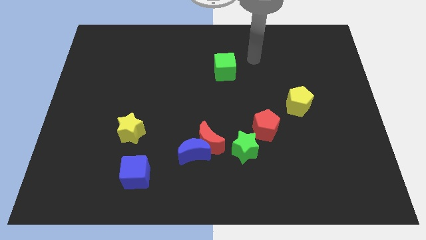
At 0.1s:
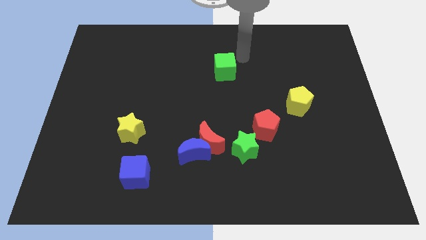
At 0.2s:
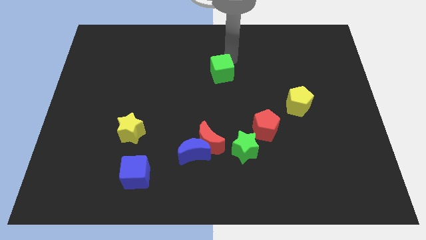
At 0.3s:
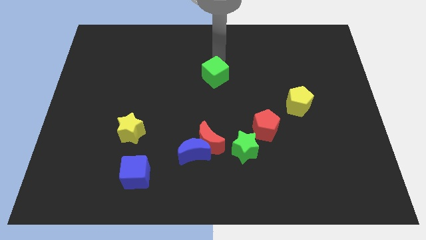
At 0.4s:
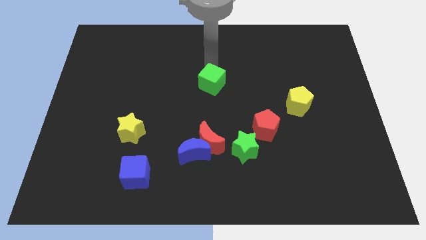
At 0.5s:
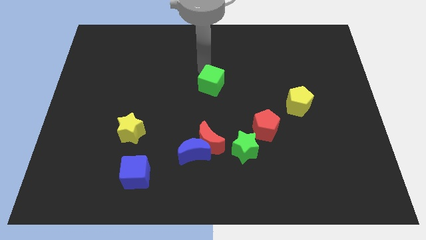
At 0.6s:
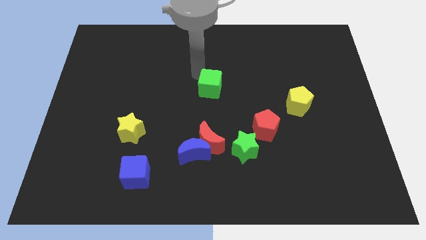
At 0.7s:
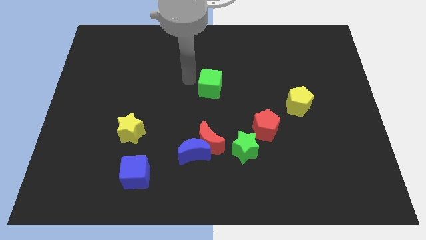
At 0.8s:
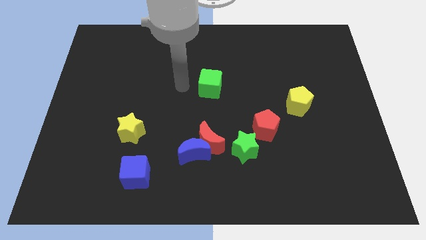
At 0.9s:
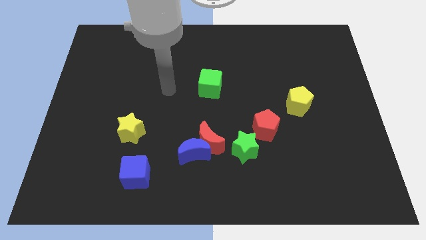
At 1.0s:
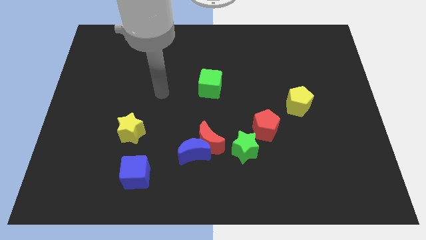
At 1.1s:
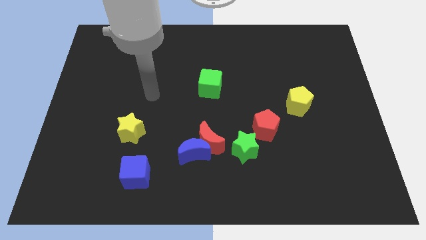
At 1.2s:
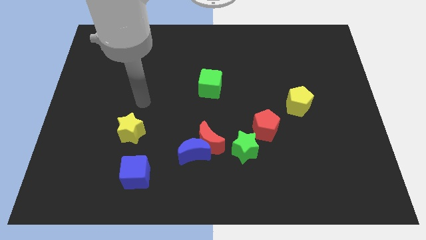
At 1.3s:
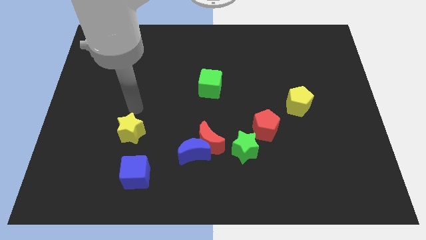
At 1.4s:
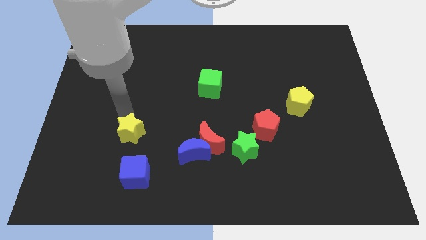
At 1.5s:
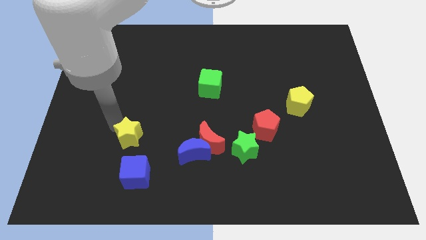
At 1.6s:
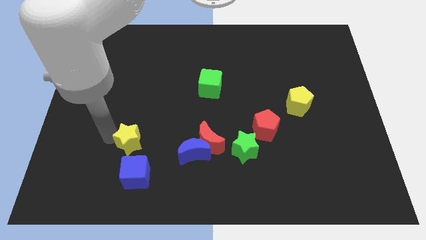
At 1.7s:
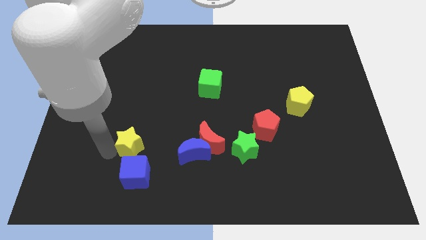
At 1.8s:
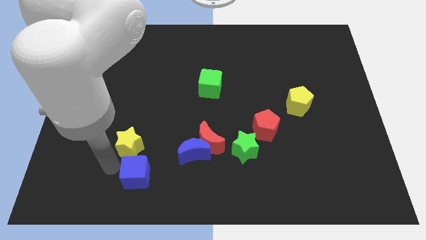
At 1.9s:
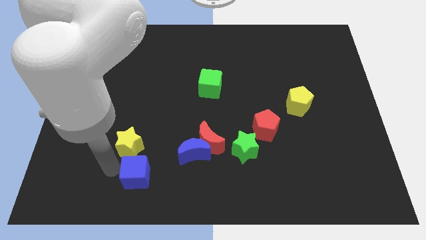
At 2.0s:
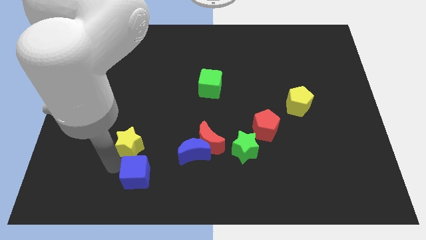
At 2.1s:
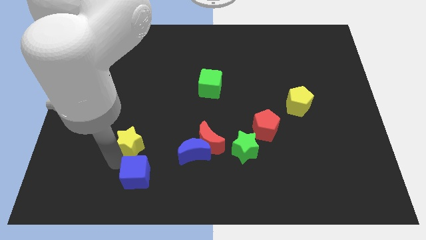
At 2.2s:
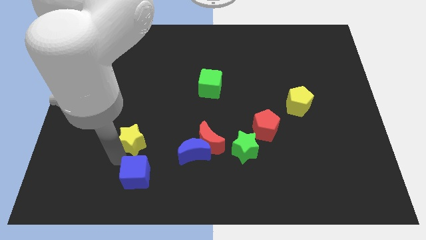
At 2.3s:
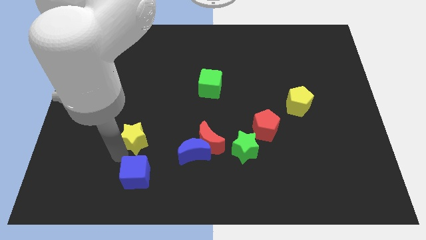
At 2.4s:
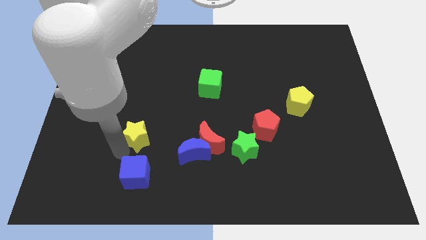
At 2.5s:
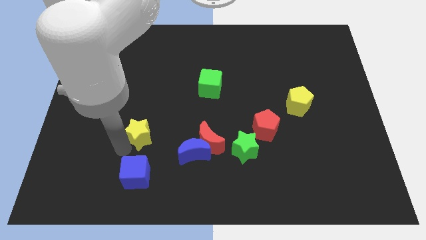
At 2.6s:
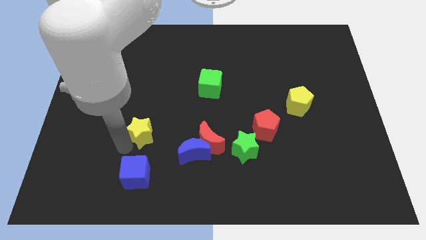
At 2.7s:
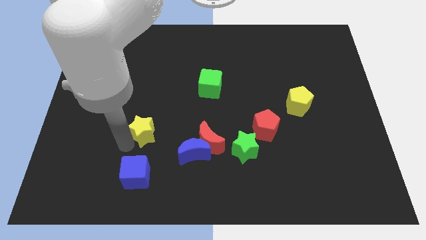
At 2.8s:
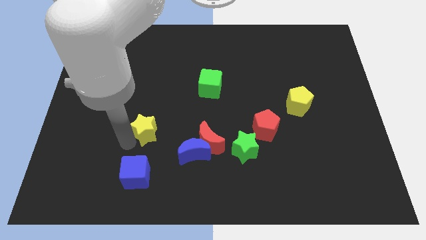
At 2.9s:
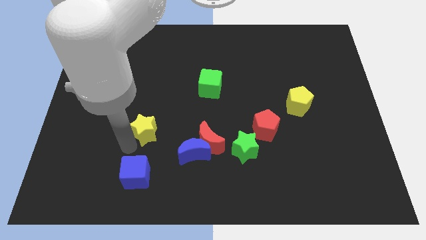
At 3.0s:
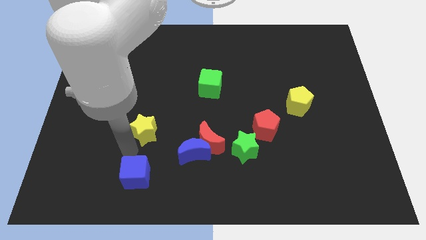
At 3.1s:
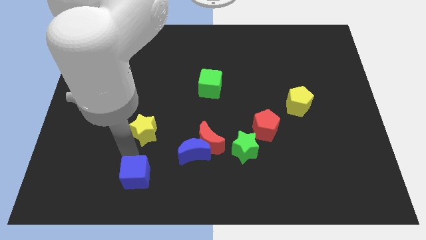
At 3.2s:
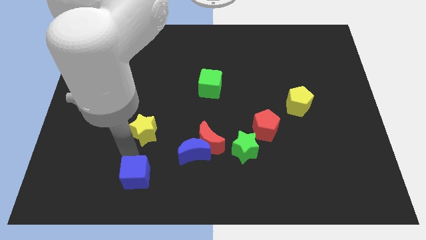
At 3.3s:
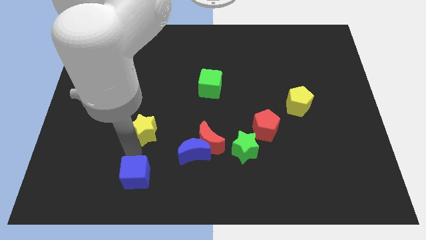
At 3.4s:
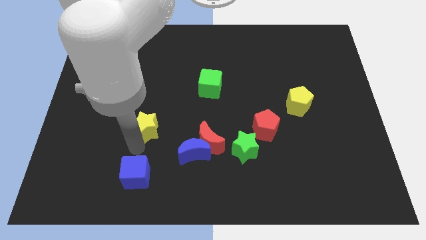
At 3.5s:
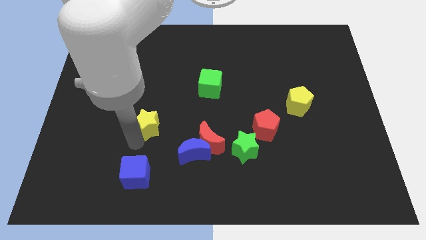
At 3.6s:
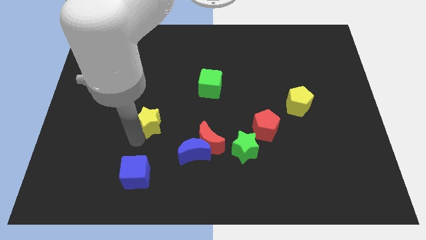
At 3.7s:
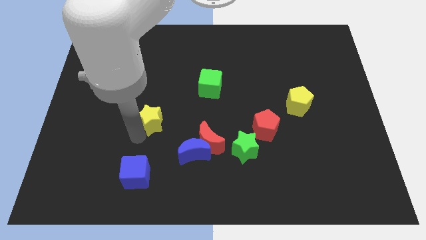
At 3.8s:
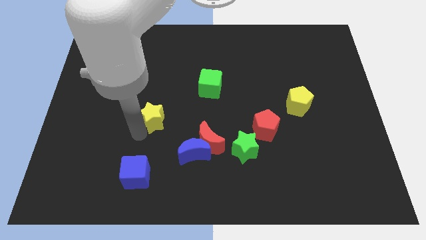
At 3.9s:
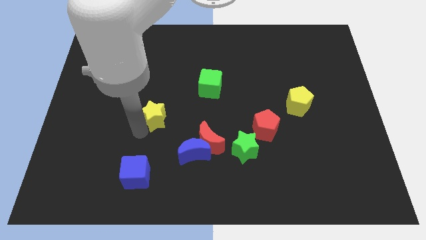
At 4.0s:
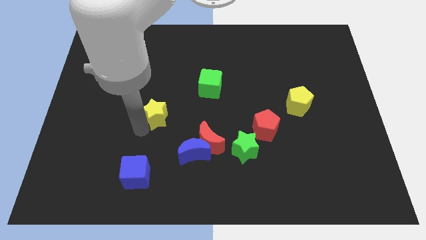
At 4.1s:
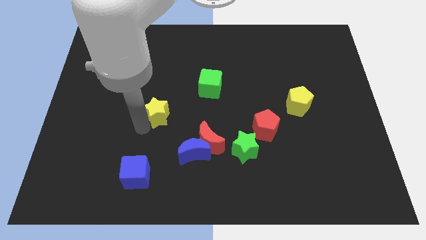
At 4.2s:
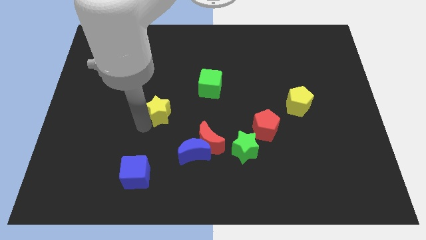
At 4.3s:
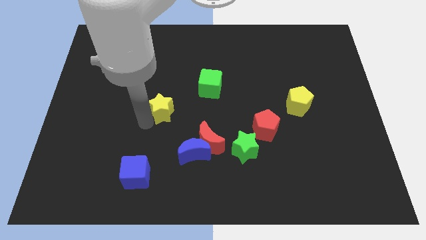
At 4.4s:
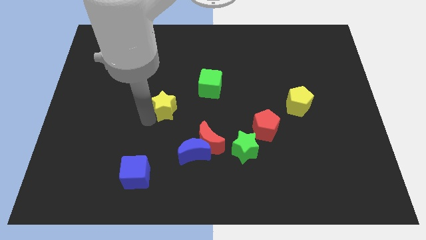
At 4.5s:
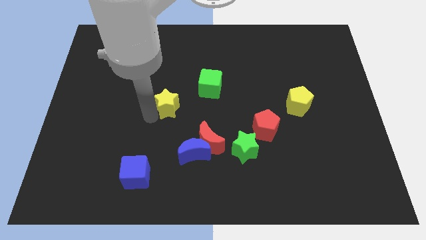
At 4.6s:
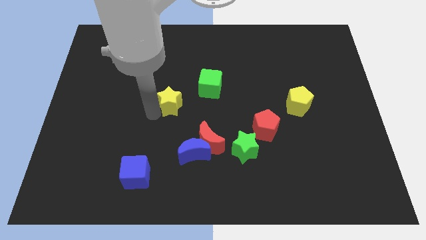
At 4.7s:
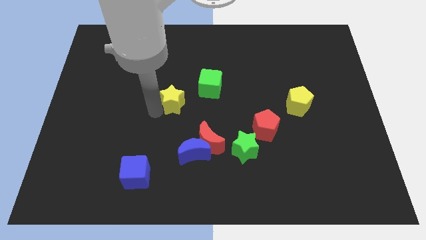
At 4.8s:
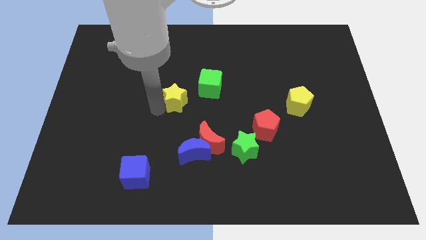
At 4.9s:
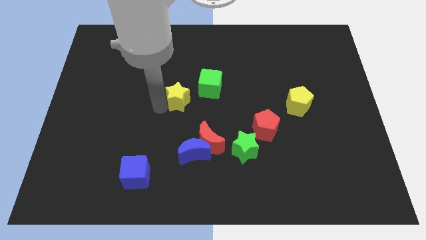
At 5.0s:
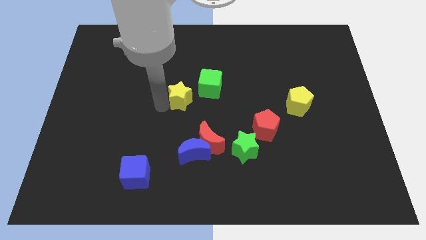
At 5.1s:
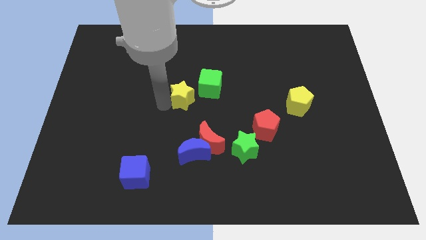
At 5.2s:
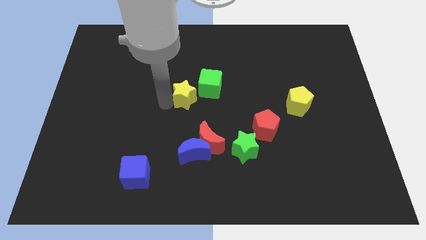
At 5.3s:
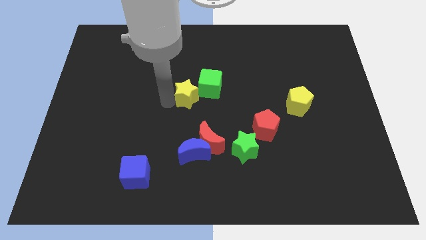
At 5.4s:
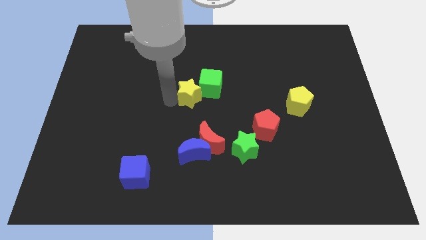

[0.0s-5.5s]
slide the yellow star to the green cube

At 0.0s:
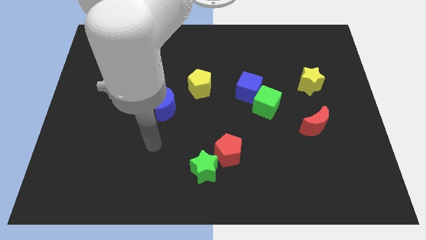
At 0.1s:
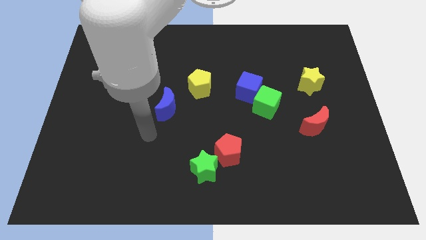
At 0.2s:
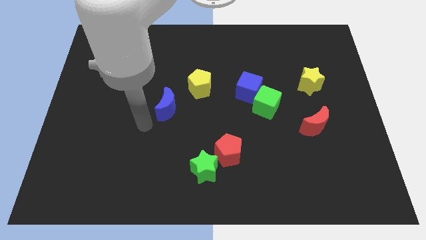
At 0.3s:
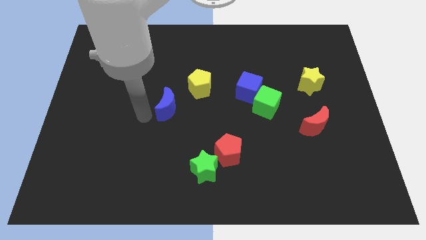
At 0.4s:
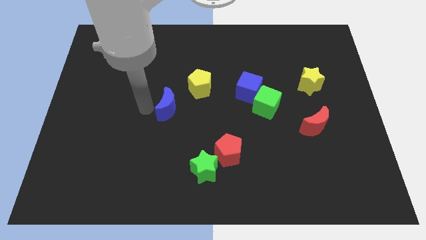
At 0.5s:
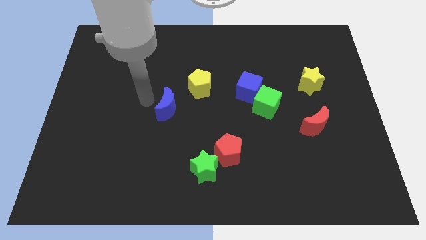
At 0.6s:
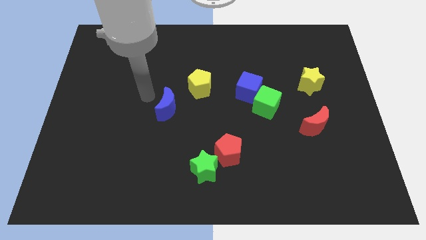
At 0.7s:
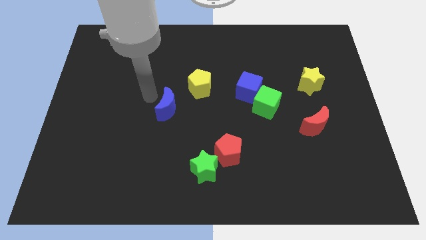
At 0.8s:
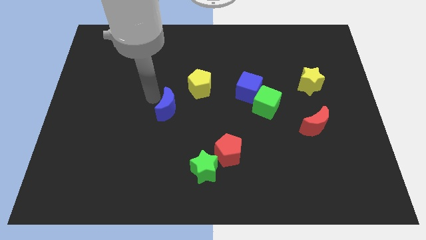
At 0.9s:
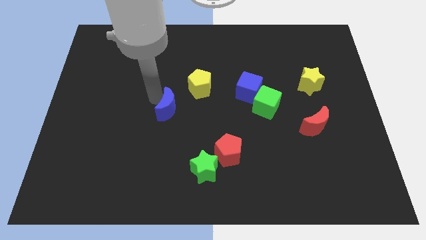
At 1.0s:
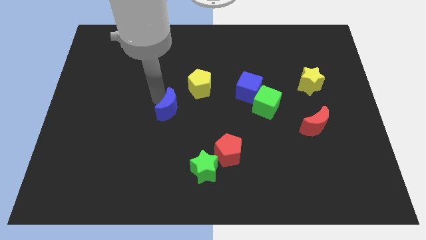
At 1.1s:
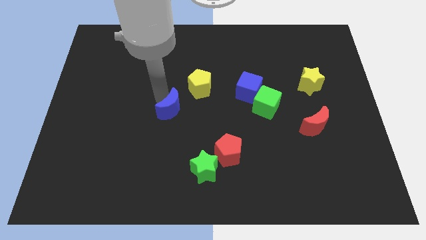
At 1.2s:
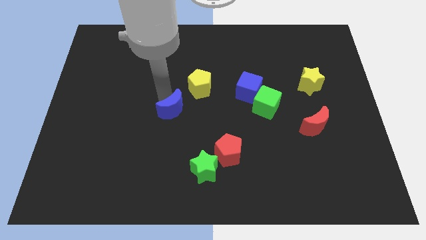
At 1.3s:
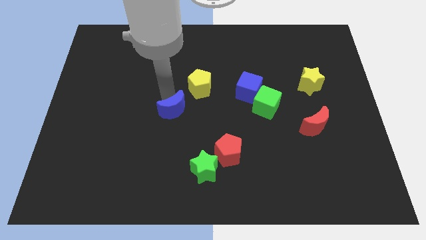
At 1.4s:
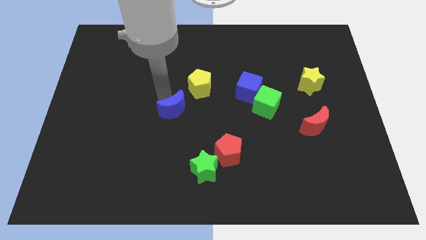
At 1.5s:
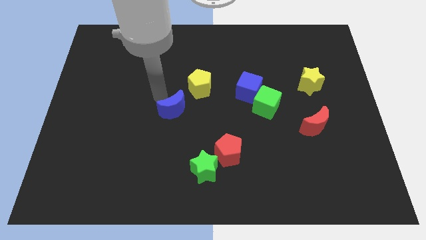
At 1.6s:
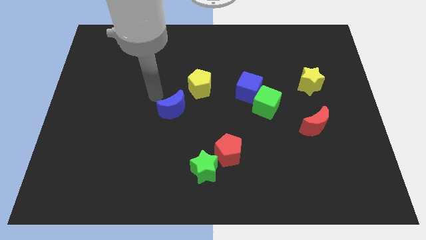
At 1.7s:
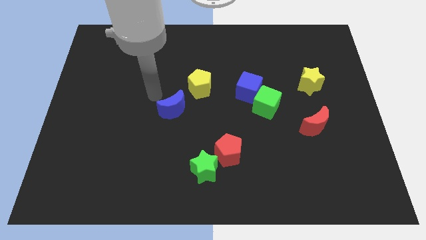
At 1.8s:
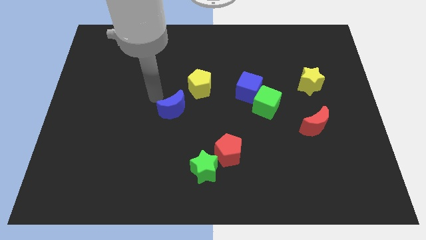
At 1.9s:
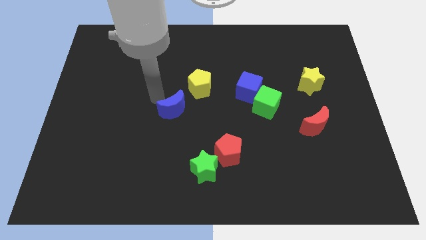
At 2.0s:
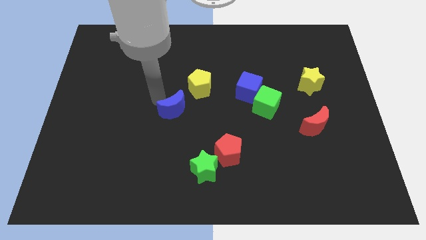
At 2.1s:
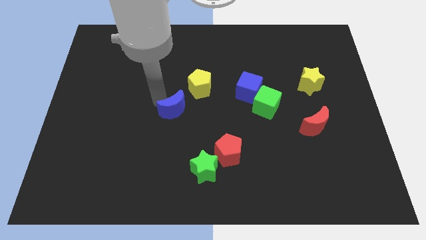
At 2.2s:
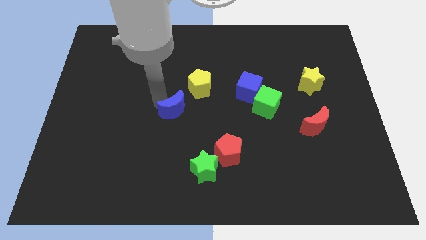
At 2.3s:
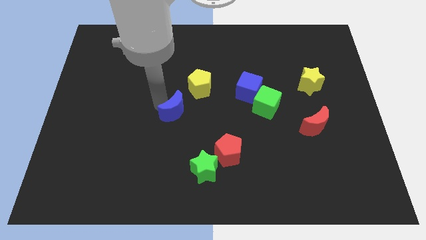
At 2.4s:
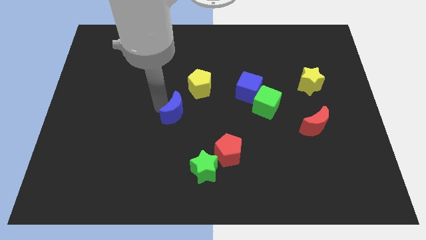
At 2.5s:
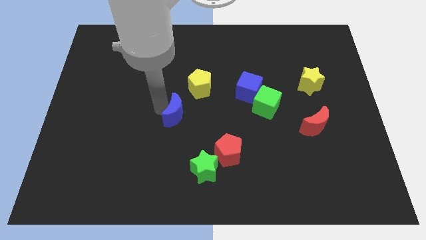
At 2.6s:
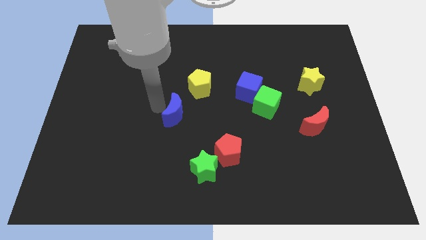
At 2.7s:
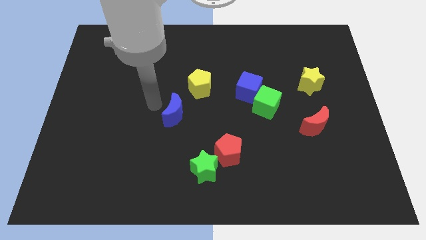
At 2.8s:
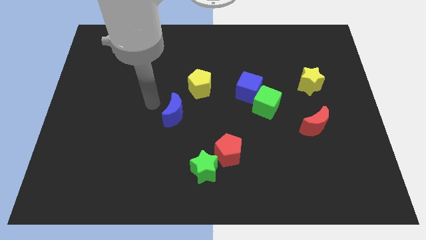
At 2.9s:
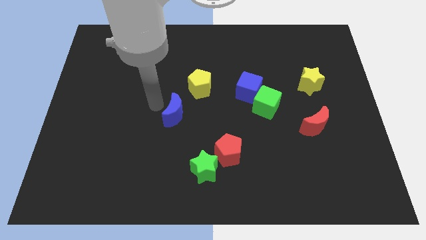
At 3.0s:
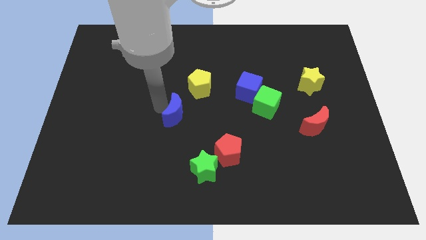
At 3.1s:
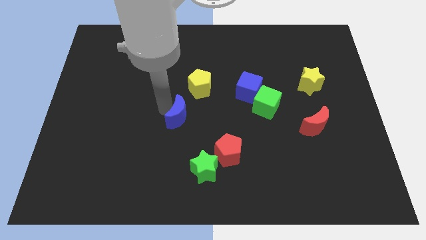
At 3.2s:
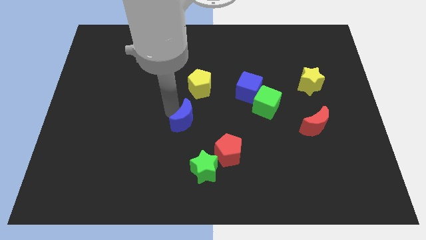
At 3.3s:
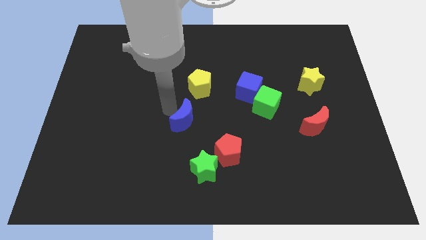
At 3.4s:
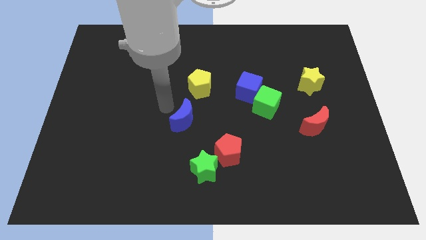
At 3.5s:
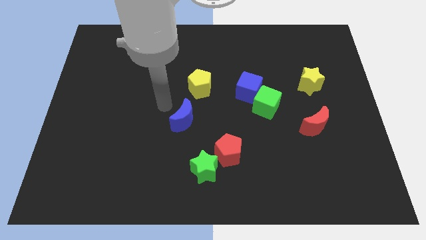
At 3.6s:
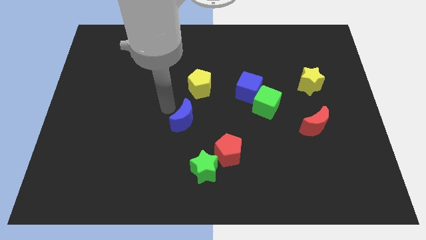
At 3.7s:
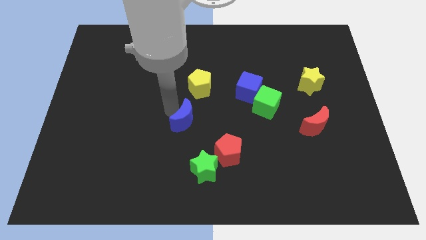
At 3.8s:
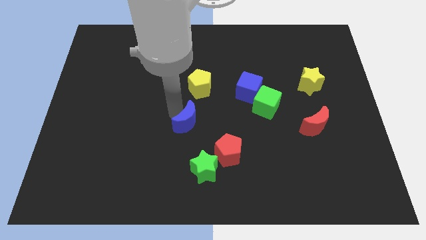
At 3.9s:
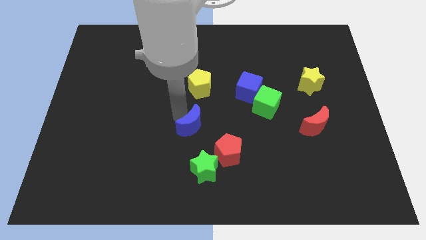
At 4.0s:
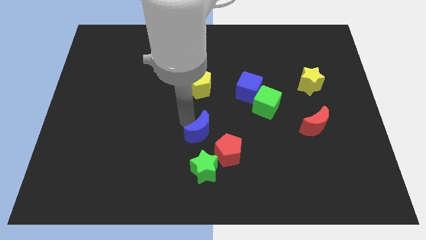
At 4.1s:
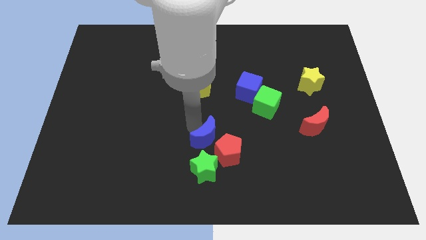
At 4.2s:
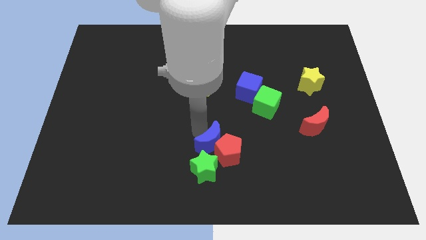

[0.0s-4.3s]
move the blue moon next to the red pentagon
